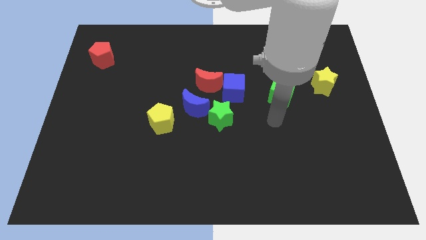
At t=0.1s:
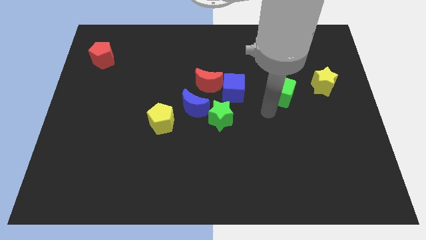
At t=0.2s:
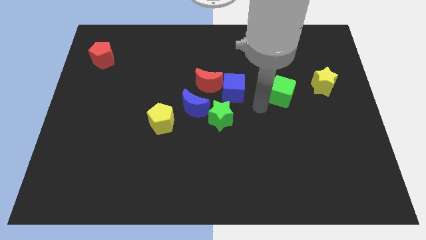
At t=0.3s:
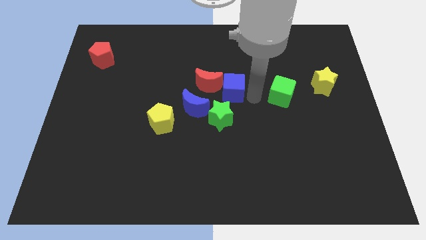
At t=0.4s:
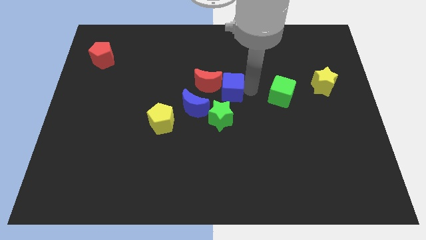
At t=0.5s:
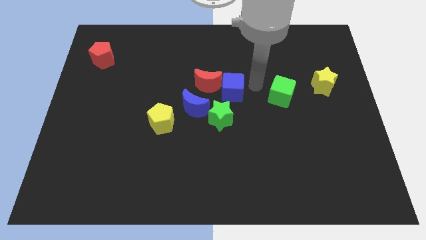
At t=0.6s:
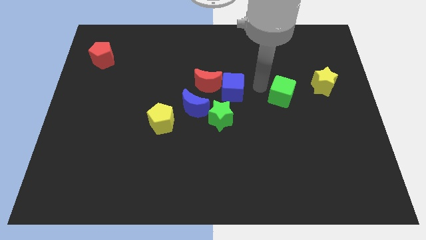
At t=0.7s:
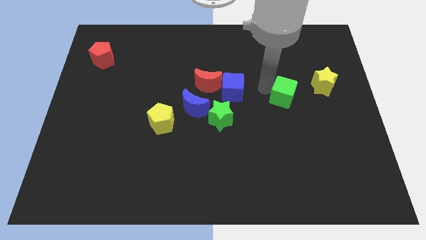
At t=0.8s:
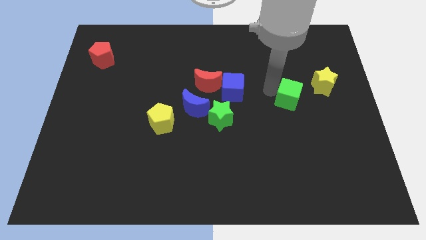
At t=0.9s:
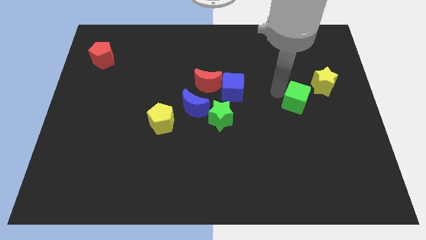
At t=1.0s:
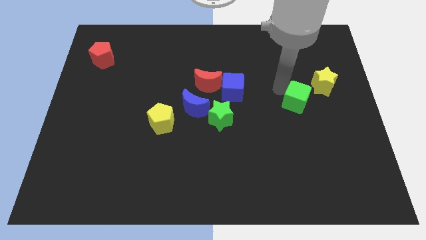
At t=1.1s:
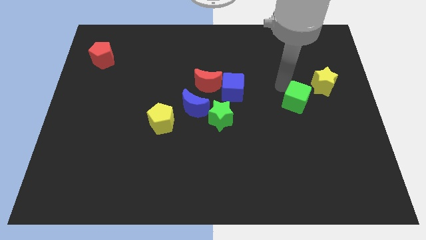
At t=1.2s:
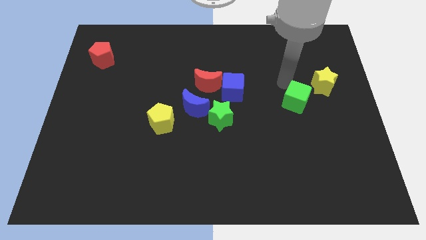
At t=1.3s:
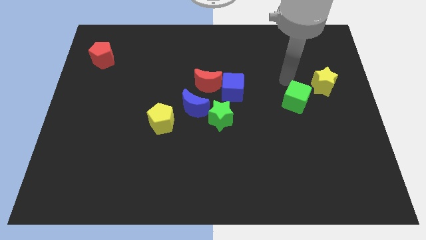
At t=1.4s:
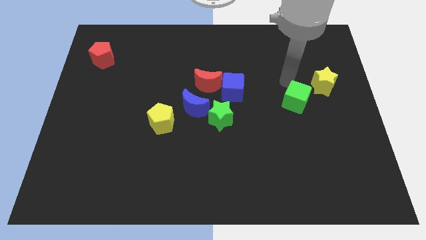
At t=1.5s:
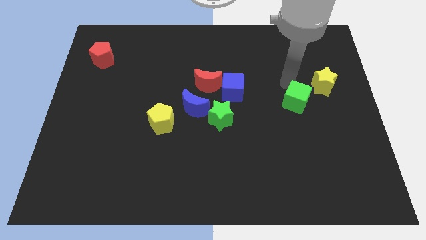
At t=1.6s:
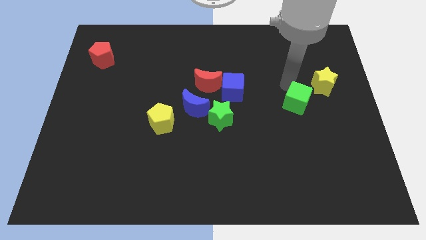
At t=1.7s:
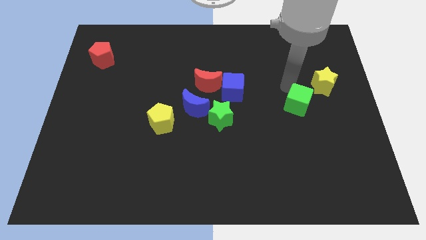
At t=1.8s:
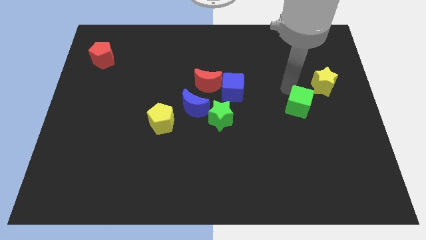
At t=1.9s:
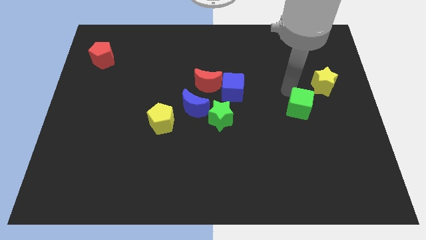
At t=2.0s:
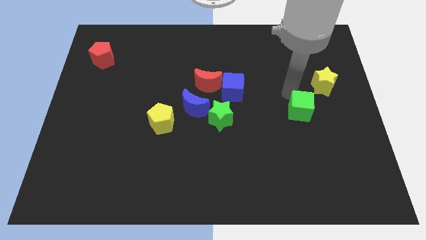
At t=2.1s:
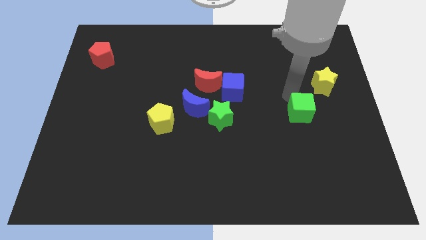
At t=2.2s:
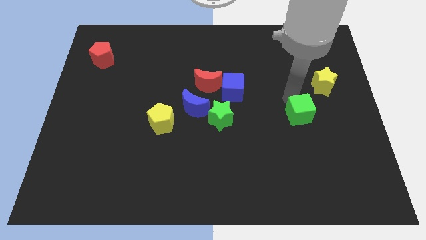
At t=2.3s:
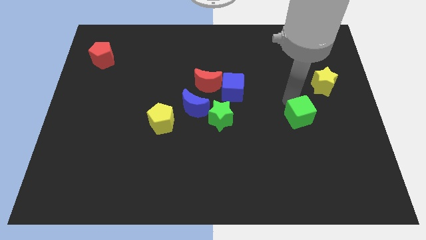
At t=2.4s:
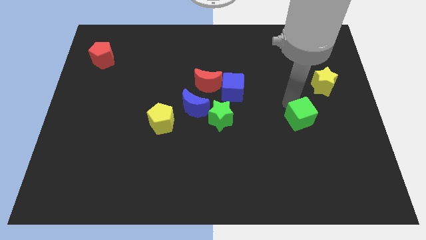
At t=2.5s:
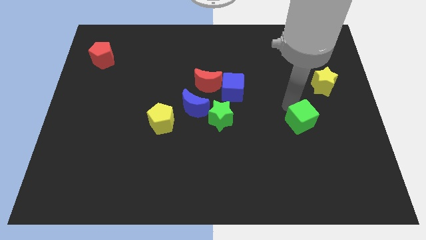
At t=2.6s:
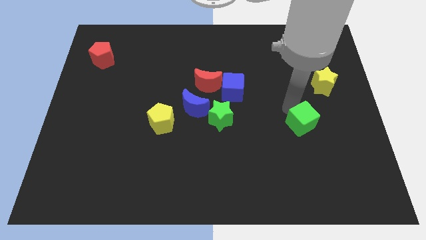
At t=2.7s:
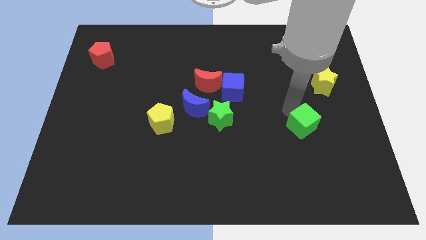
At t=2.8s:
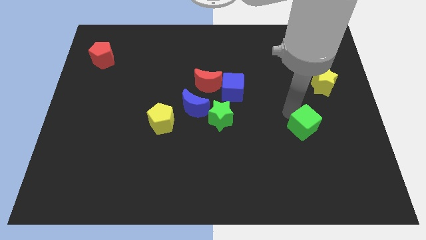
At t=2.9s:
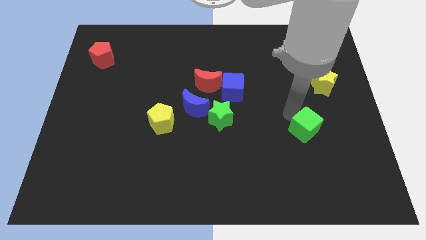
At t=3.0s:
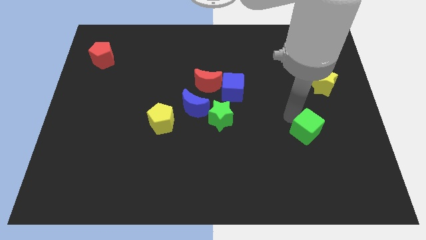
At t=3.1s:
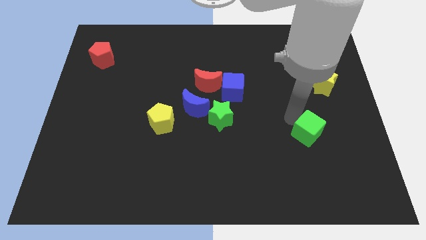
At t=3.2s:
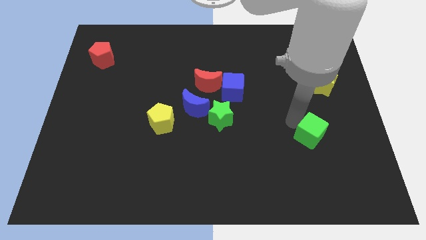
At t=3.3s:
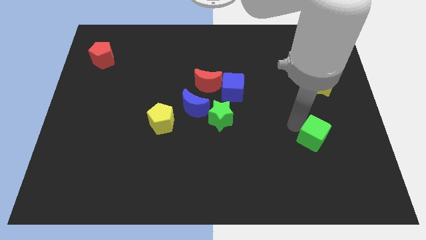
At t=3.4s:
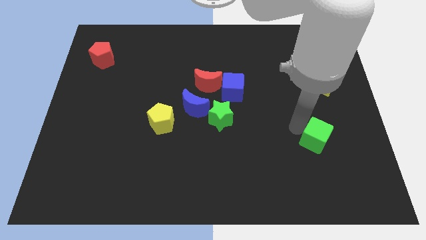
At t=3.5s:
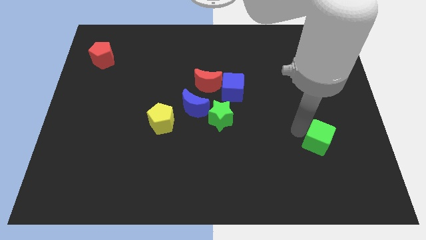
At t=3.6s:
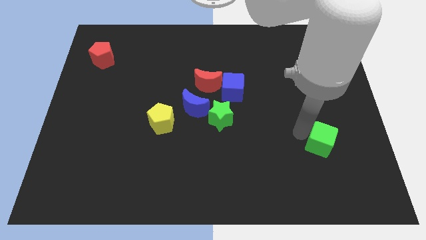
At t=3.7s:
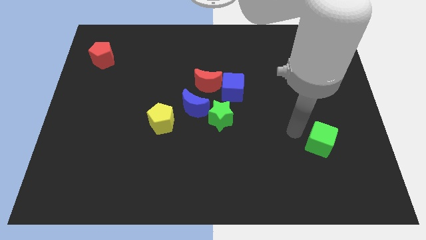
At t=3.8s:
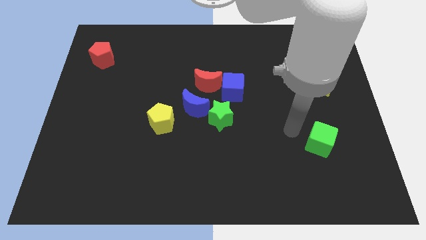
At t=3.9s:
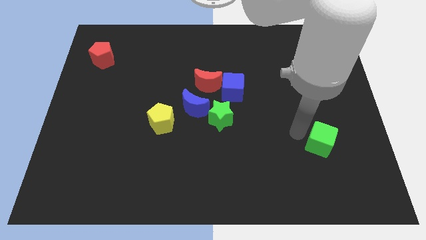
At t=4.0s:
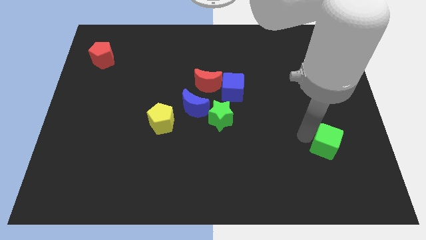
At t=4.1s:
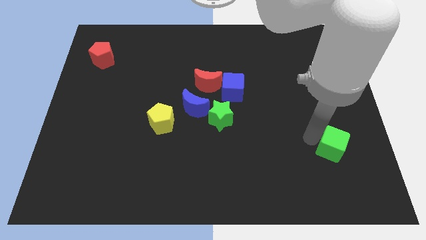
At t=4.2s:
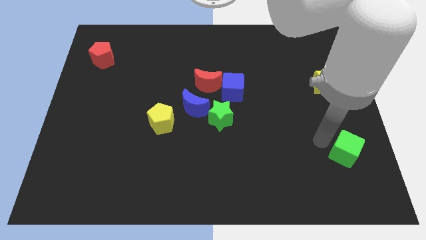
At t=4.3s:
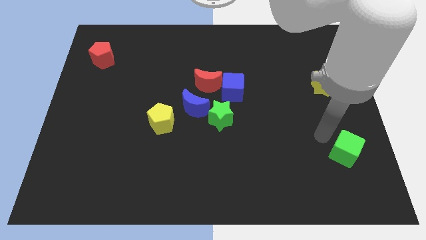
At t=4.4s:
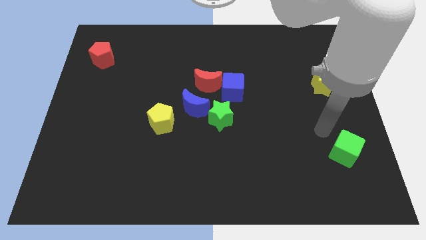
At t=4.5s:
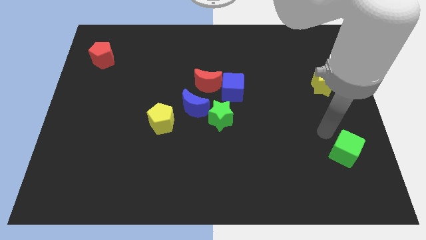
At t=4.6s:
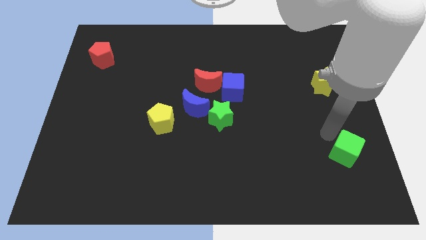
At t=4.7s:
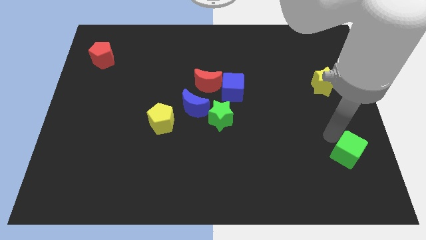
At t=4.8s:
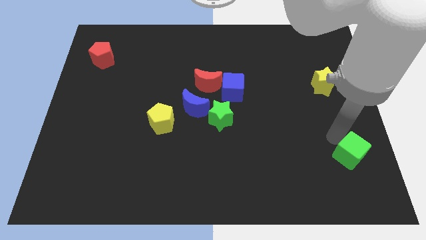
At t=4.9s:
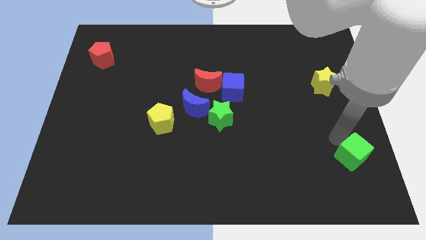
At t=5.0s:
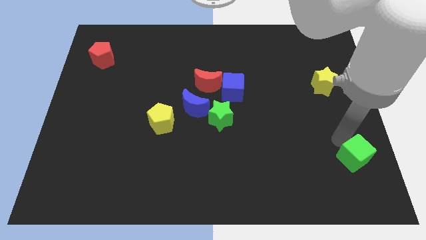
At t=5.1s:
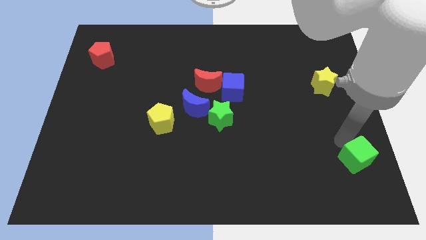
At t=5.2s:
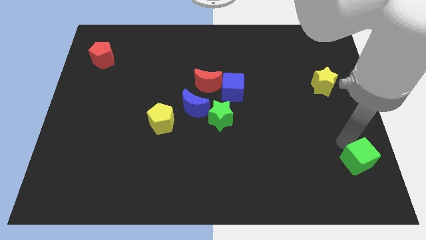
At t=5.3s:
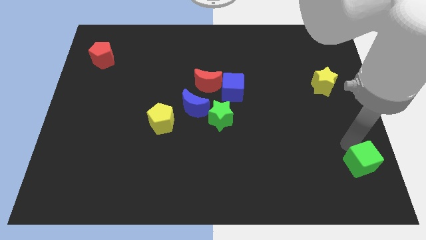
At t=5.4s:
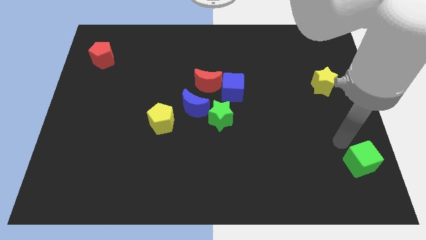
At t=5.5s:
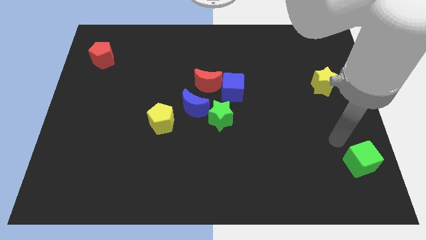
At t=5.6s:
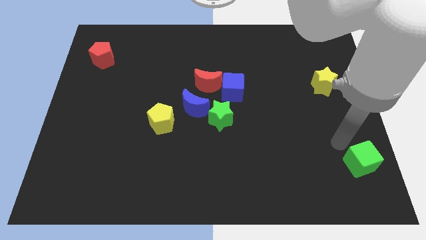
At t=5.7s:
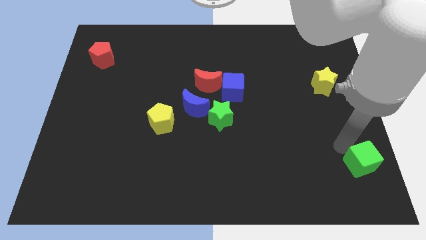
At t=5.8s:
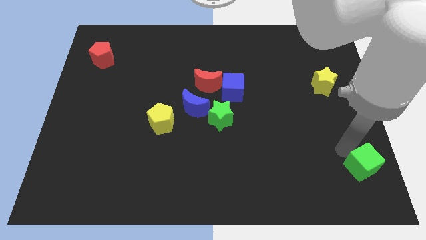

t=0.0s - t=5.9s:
put the green cube to the bottom right corner

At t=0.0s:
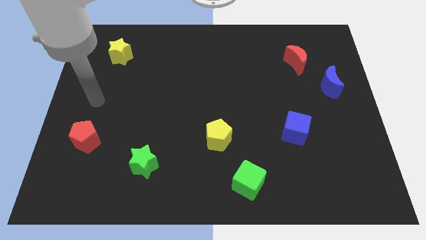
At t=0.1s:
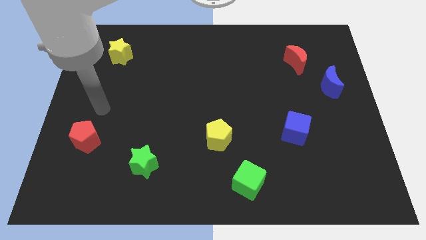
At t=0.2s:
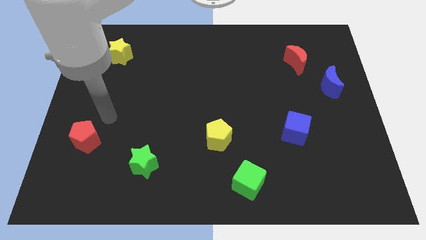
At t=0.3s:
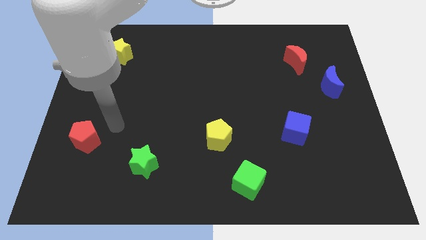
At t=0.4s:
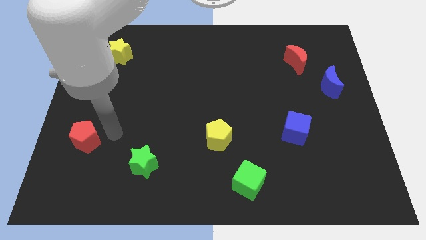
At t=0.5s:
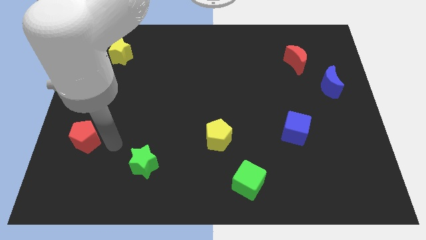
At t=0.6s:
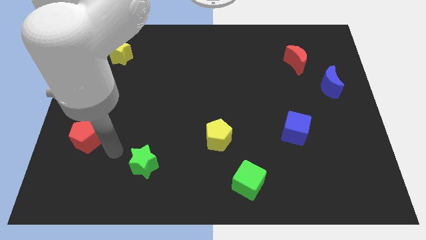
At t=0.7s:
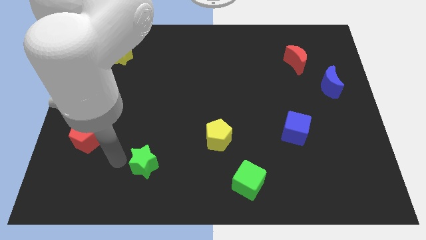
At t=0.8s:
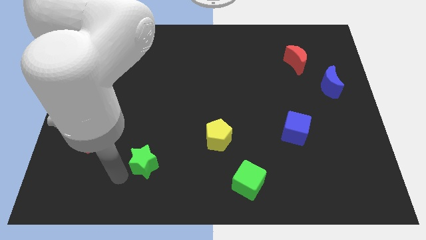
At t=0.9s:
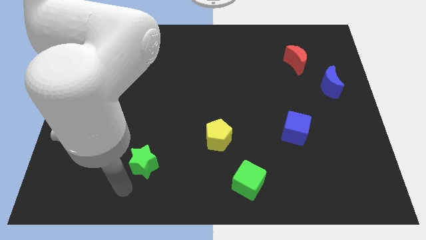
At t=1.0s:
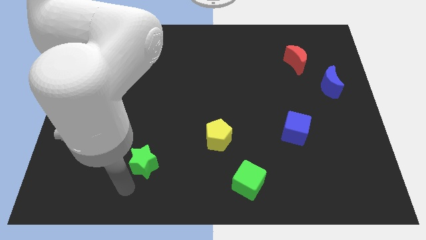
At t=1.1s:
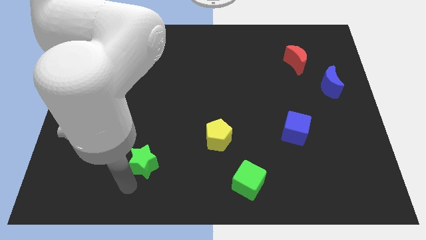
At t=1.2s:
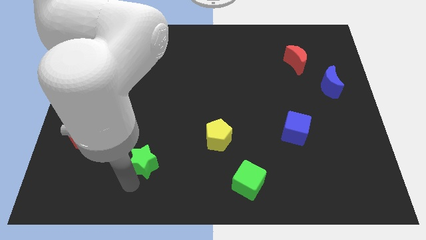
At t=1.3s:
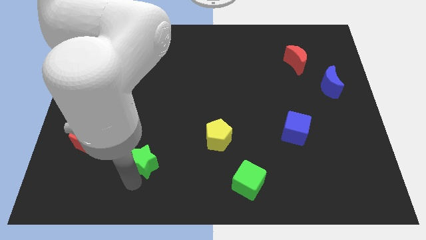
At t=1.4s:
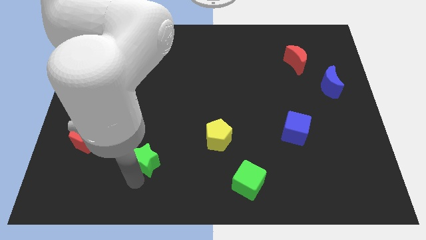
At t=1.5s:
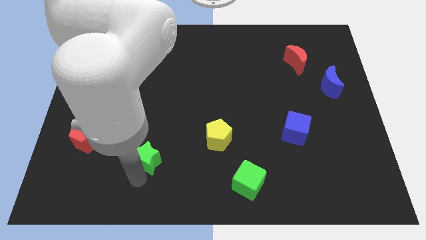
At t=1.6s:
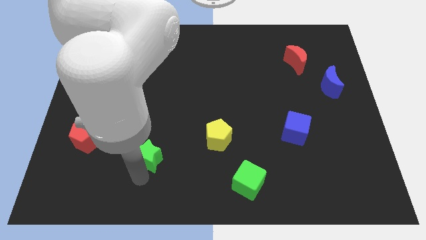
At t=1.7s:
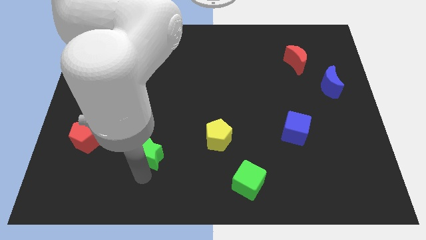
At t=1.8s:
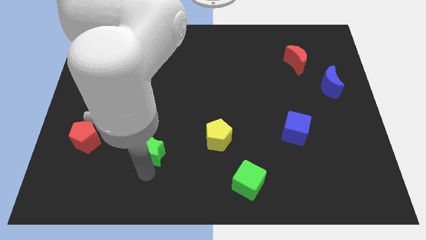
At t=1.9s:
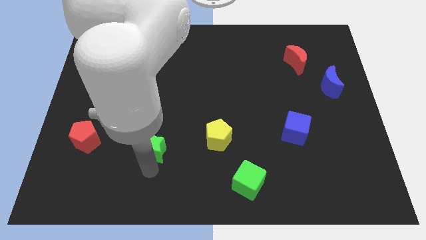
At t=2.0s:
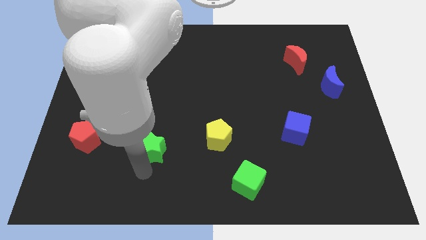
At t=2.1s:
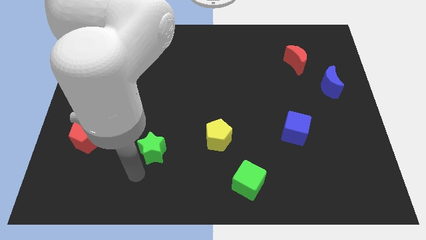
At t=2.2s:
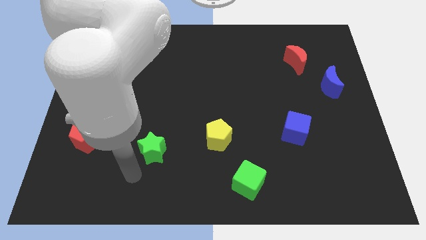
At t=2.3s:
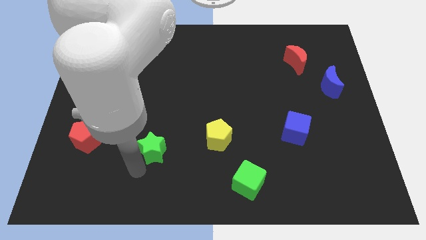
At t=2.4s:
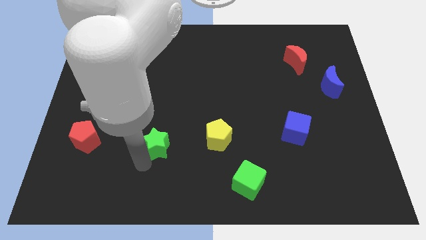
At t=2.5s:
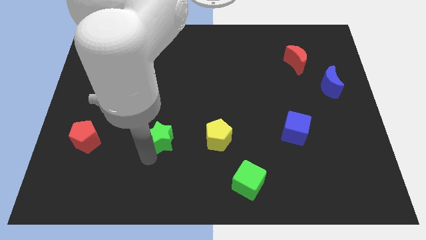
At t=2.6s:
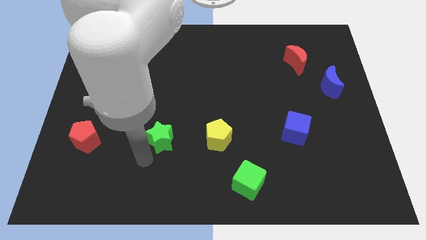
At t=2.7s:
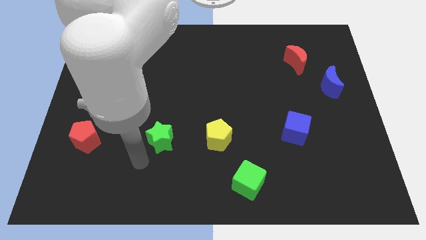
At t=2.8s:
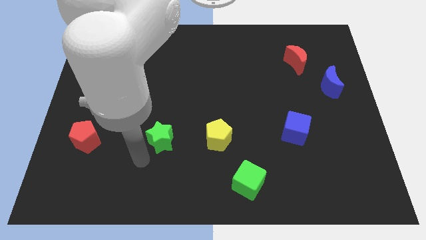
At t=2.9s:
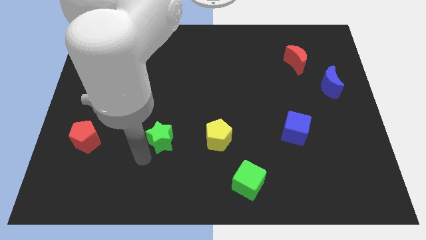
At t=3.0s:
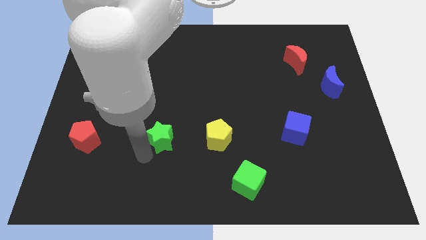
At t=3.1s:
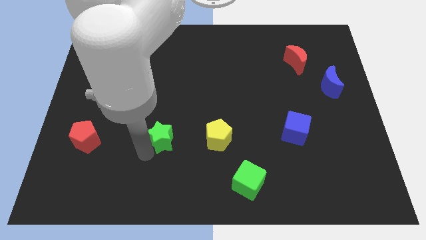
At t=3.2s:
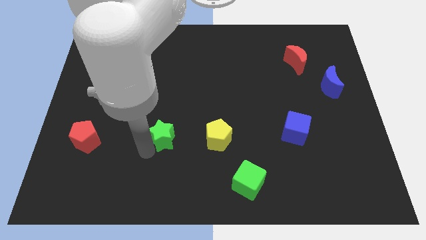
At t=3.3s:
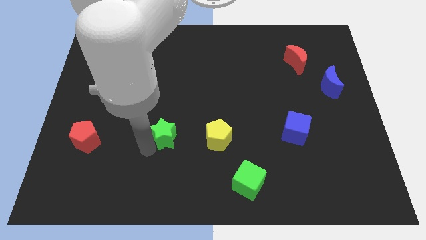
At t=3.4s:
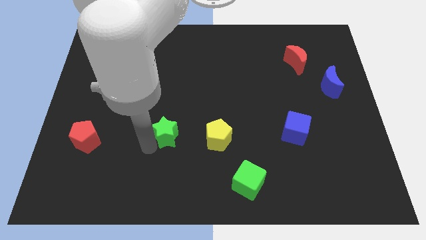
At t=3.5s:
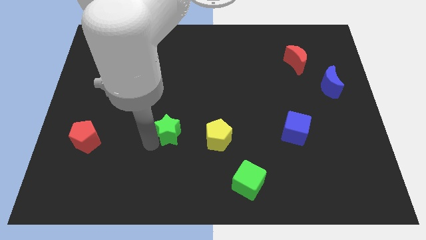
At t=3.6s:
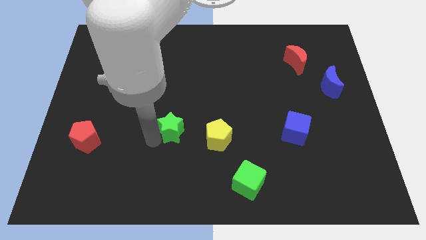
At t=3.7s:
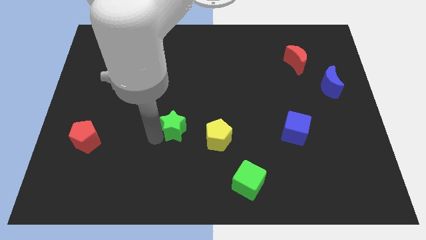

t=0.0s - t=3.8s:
put the green star to the center
